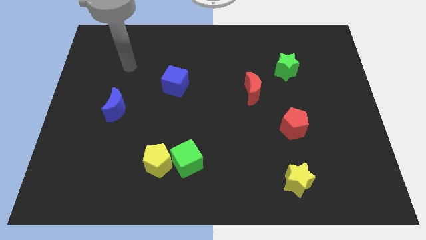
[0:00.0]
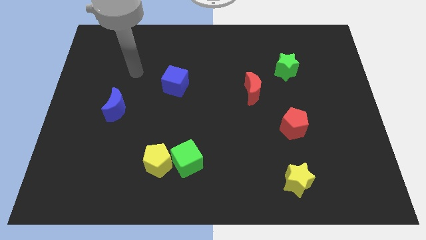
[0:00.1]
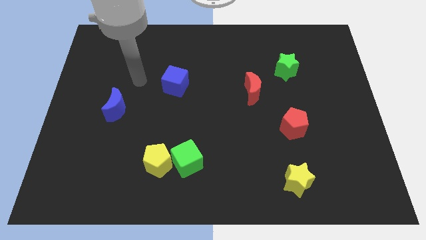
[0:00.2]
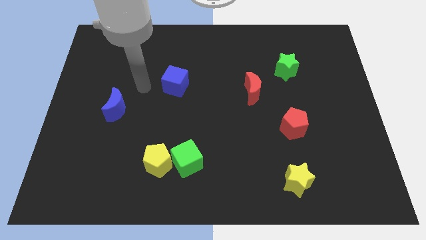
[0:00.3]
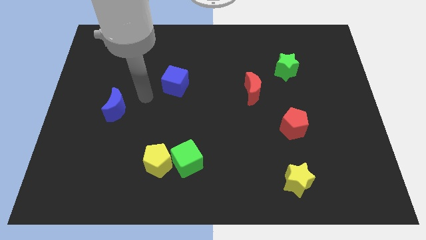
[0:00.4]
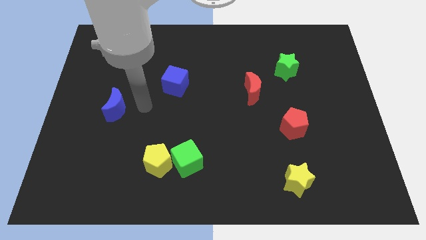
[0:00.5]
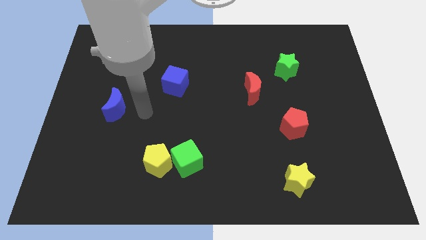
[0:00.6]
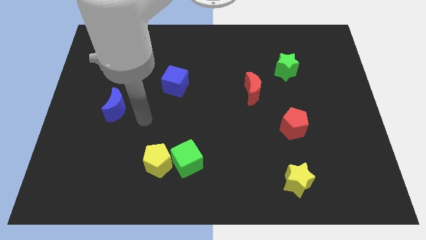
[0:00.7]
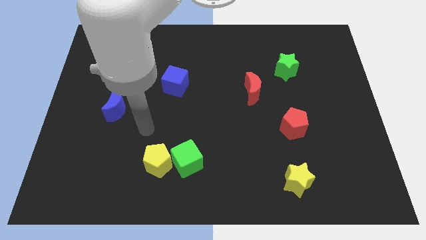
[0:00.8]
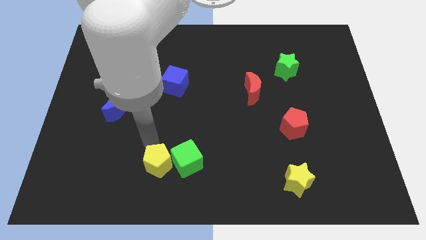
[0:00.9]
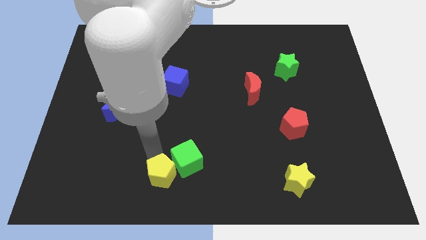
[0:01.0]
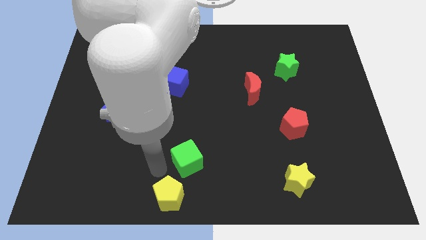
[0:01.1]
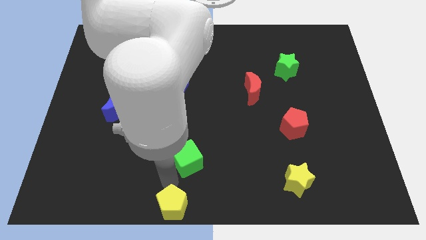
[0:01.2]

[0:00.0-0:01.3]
move the green cube away from the yellow pentagon

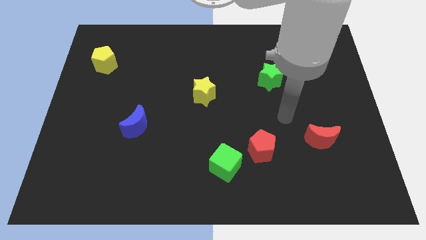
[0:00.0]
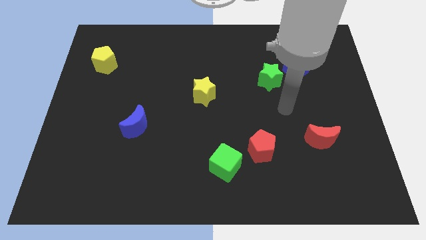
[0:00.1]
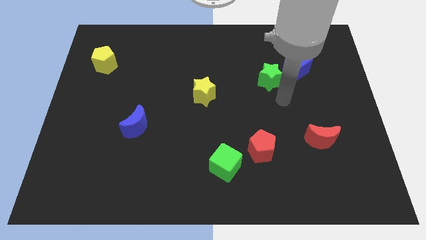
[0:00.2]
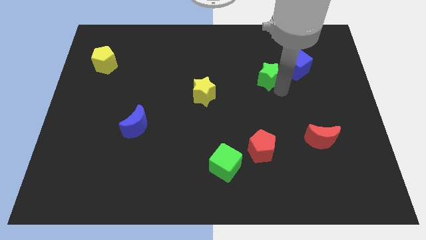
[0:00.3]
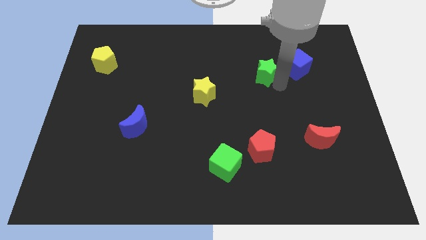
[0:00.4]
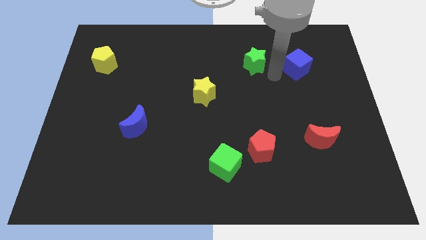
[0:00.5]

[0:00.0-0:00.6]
pull the blue cube apart from the green star

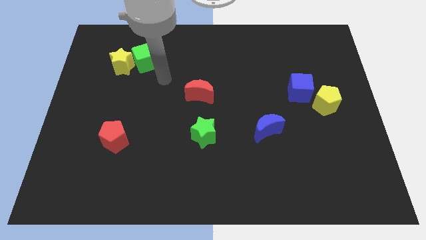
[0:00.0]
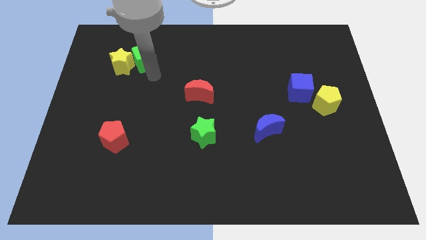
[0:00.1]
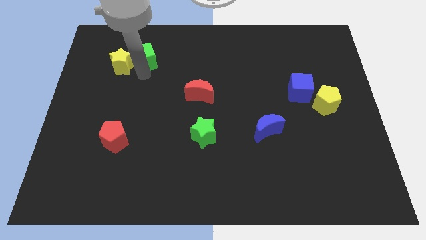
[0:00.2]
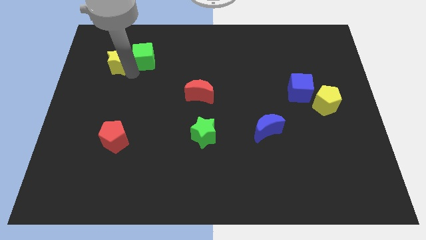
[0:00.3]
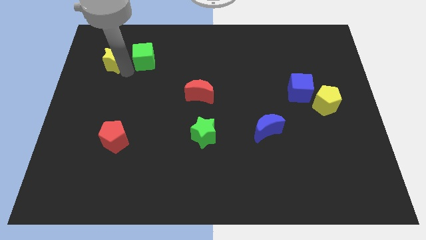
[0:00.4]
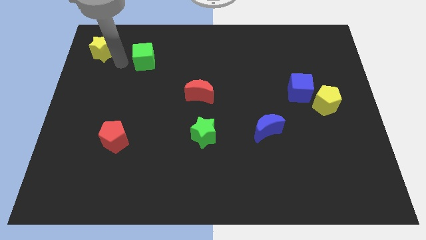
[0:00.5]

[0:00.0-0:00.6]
pull the green cube apart from the yellow star

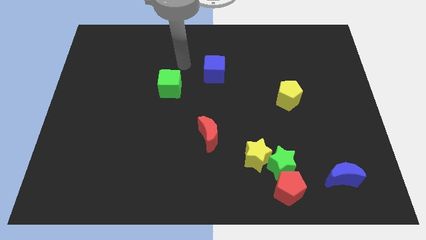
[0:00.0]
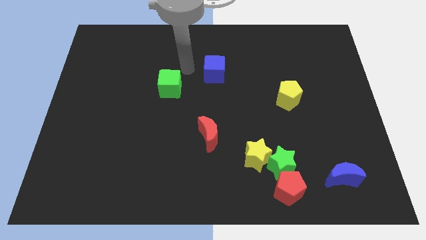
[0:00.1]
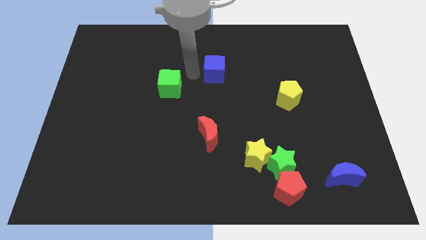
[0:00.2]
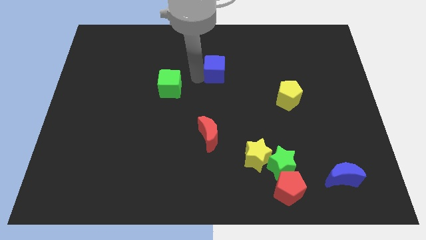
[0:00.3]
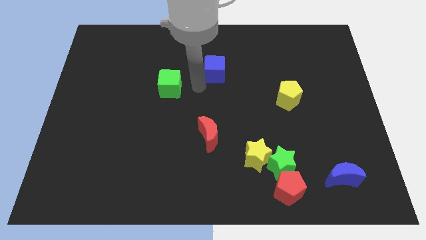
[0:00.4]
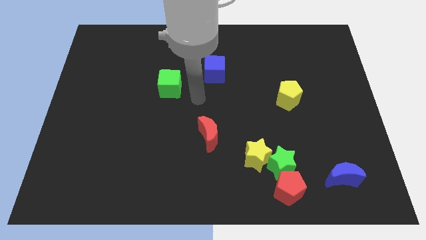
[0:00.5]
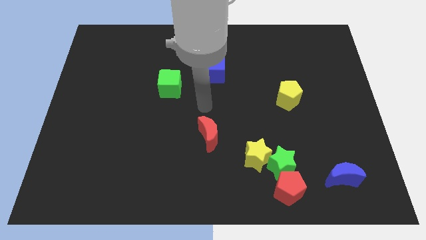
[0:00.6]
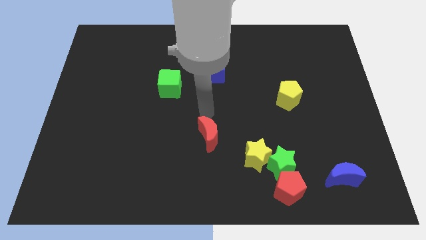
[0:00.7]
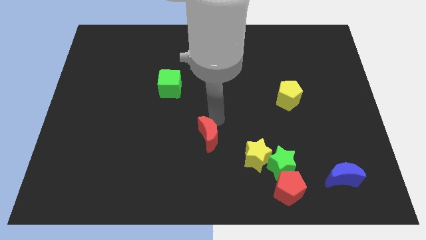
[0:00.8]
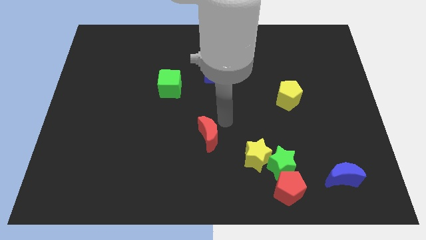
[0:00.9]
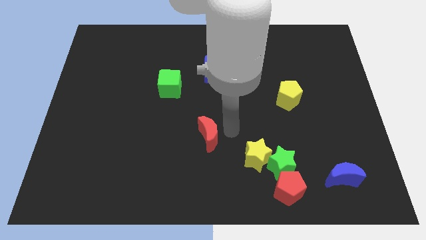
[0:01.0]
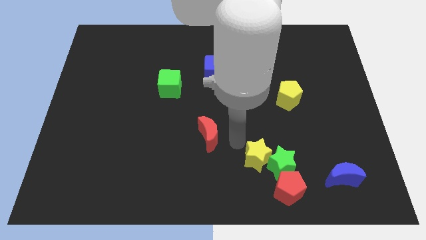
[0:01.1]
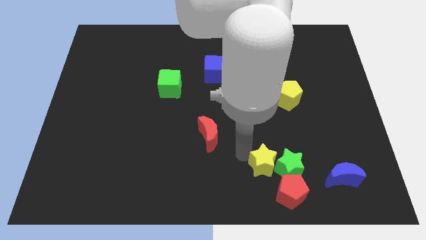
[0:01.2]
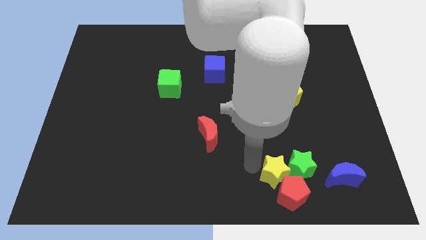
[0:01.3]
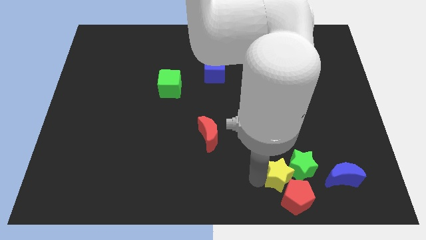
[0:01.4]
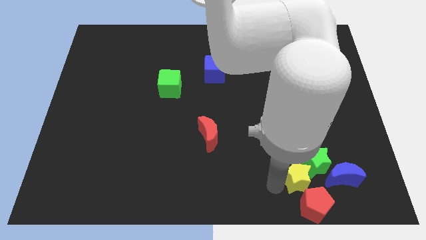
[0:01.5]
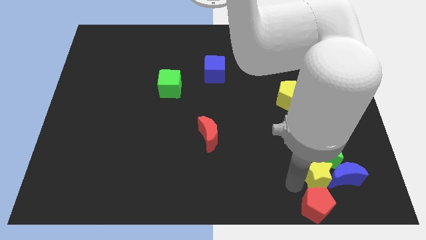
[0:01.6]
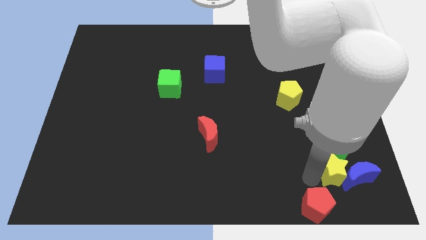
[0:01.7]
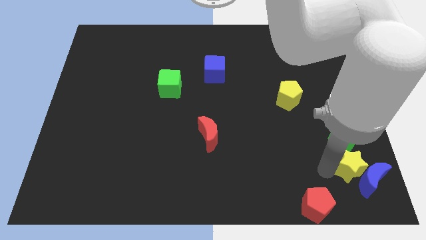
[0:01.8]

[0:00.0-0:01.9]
move the green star away from the yellow star and red pentagon

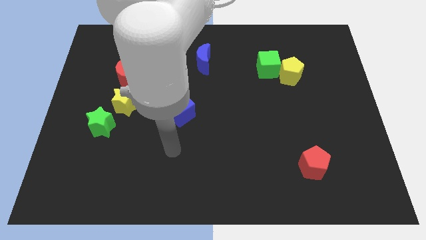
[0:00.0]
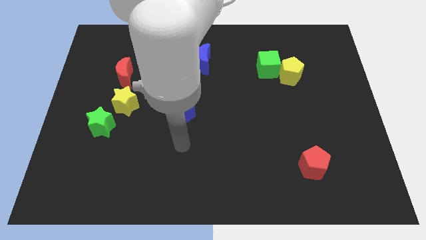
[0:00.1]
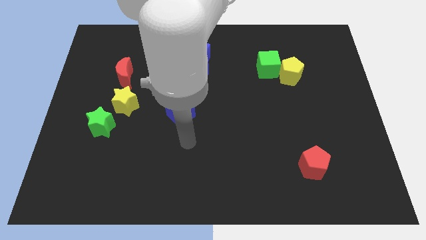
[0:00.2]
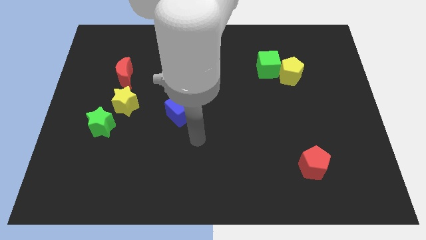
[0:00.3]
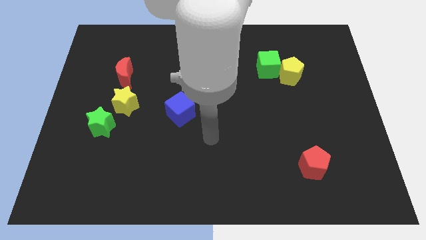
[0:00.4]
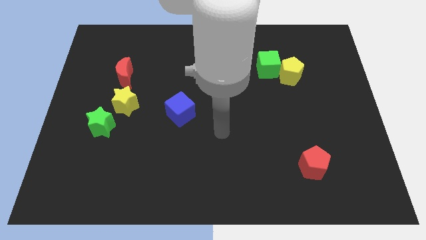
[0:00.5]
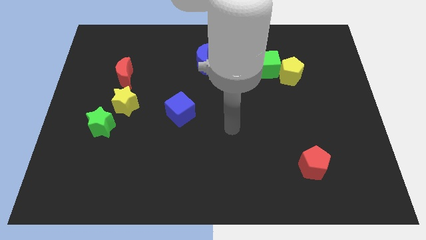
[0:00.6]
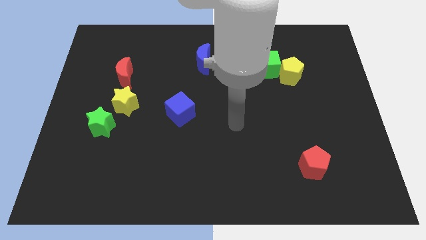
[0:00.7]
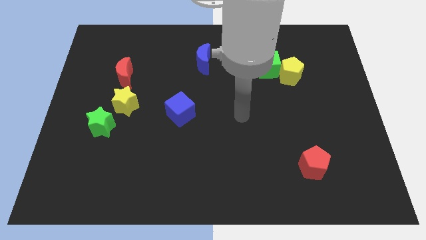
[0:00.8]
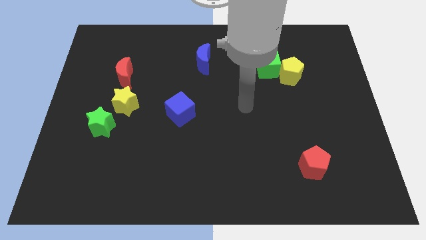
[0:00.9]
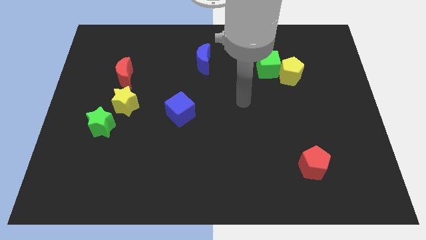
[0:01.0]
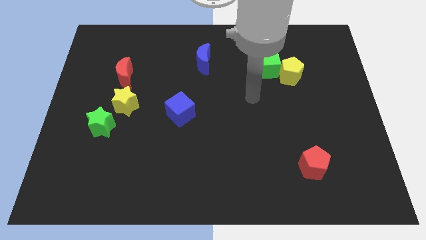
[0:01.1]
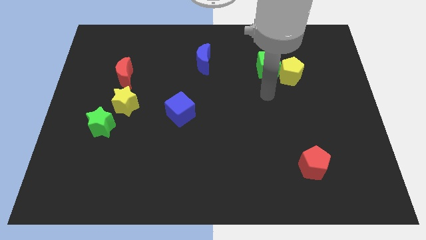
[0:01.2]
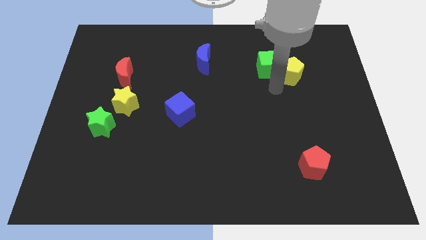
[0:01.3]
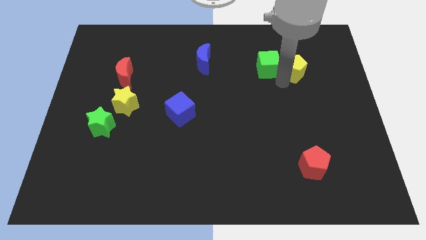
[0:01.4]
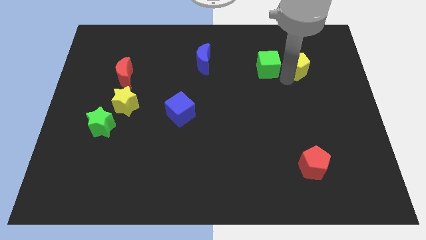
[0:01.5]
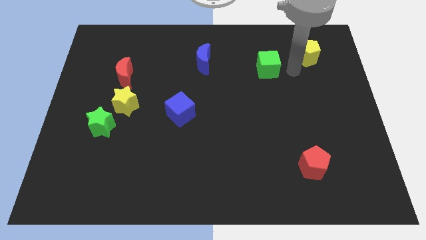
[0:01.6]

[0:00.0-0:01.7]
pull the green cube apart from the yellow pentagon

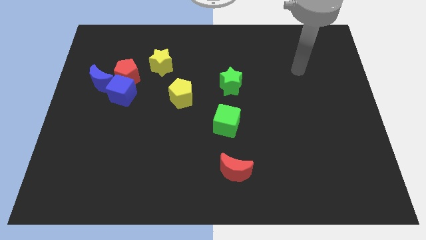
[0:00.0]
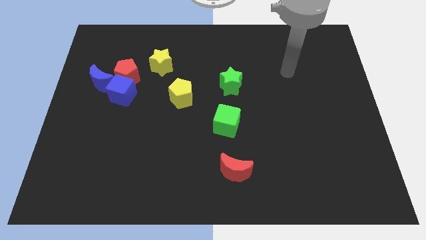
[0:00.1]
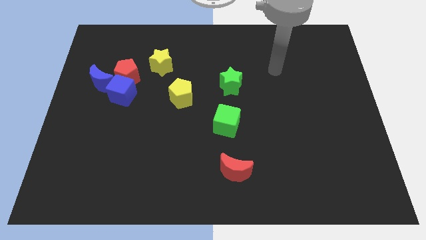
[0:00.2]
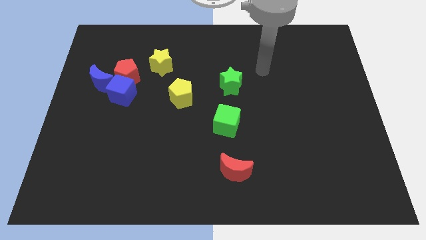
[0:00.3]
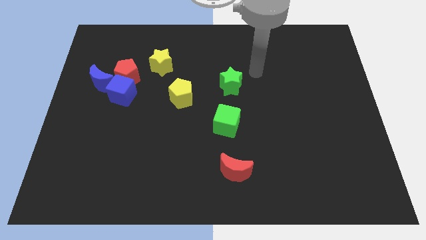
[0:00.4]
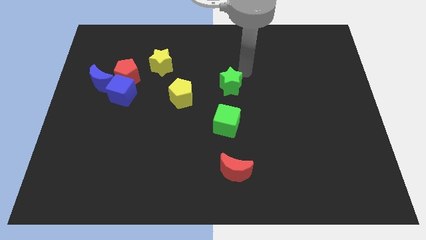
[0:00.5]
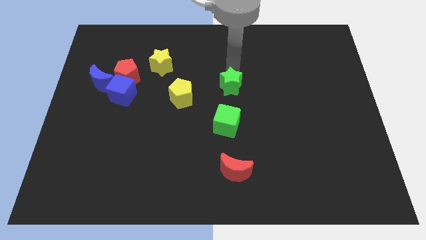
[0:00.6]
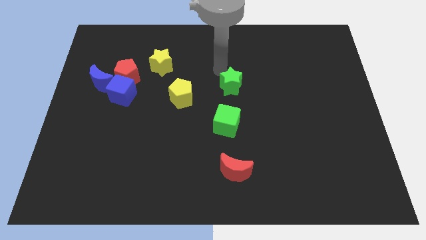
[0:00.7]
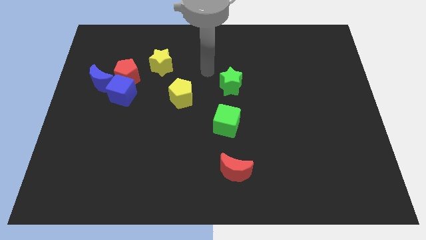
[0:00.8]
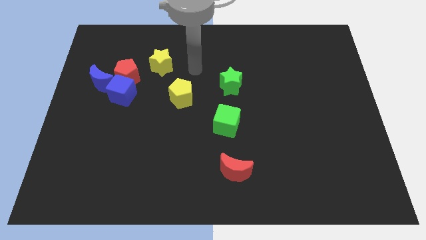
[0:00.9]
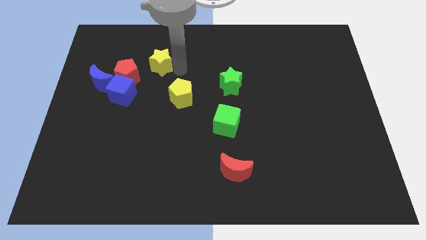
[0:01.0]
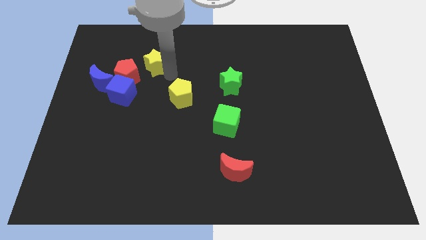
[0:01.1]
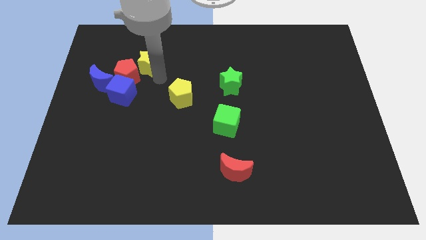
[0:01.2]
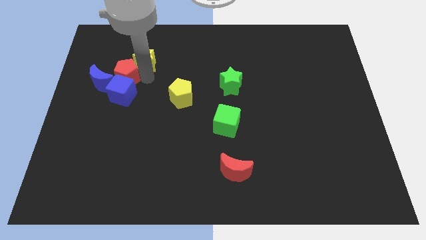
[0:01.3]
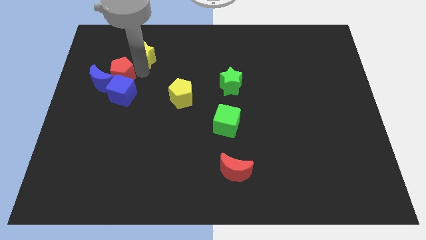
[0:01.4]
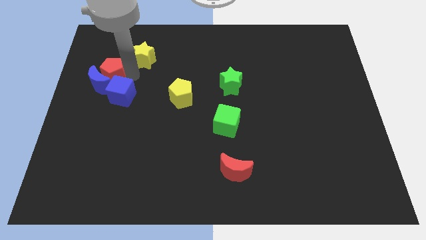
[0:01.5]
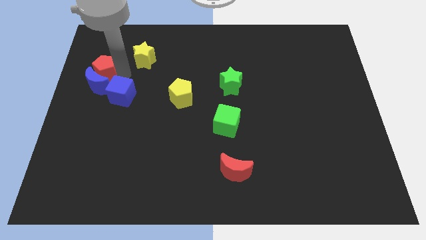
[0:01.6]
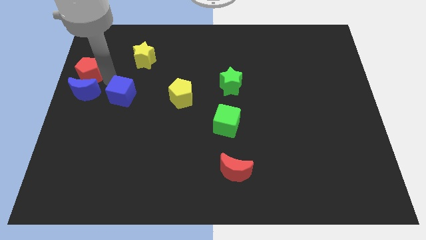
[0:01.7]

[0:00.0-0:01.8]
pull the blue cube apart from the red pentagon and blue moon

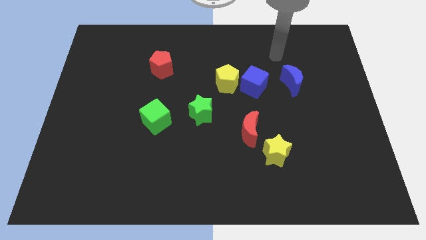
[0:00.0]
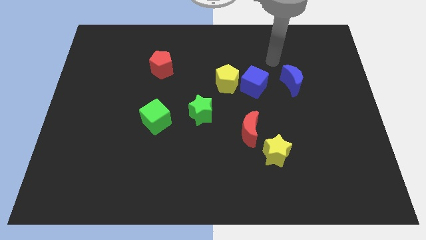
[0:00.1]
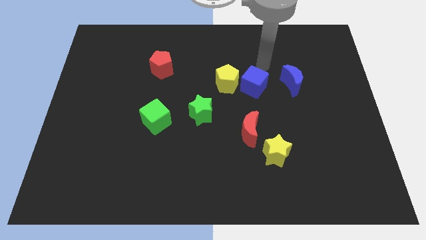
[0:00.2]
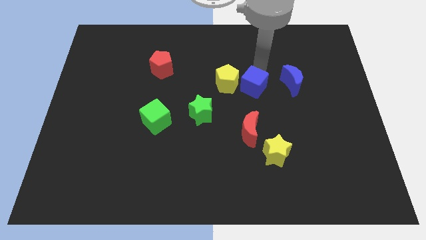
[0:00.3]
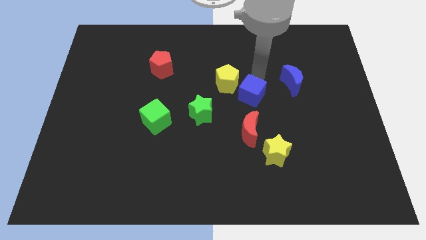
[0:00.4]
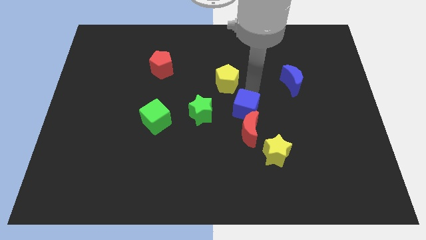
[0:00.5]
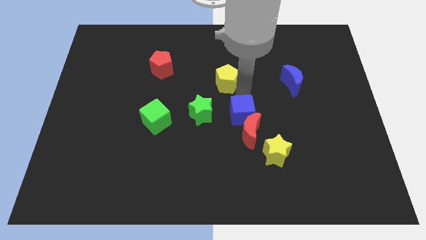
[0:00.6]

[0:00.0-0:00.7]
pull the yellow pentagon apart from the blue cube

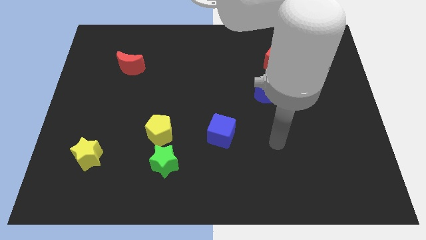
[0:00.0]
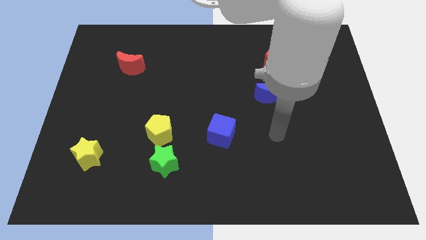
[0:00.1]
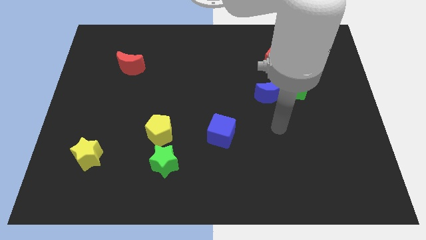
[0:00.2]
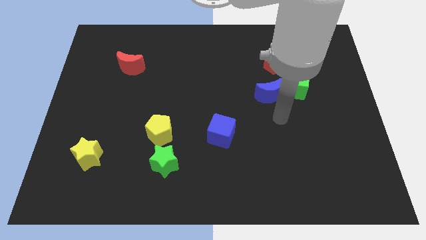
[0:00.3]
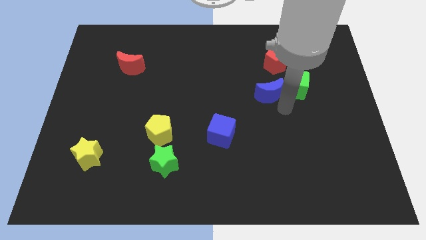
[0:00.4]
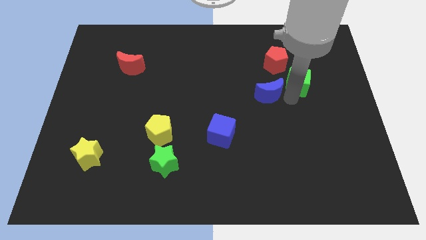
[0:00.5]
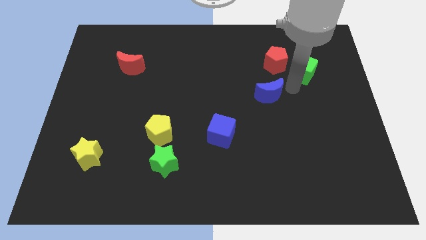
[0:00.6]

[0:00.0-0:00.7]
pull the blue moon apart from the green cube
